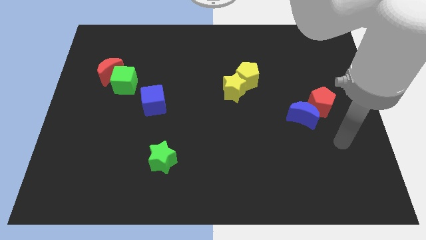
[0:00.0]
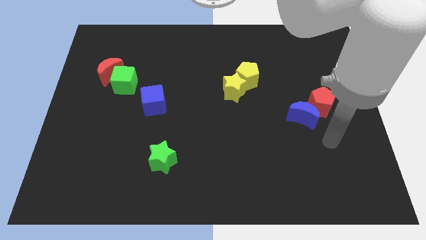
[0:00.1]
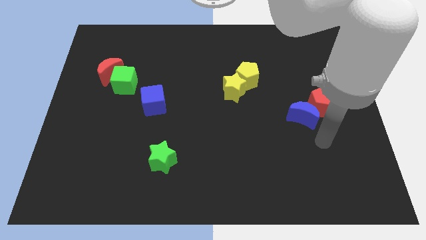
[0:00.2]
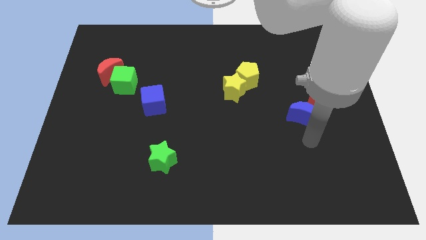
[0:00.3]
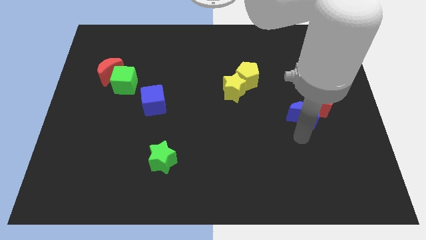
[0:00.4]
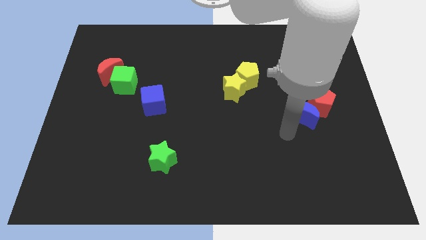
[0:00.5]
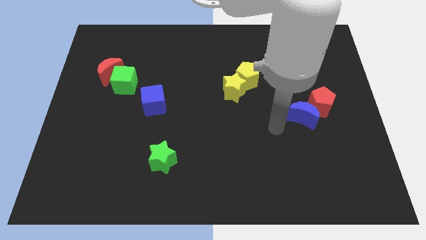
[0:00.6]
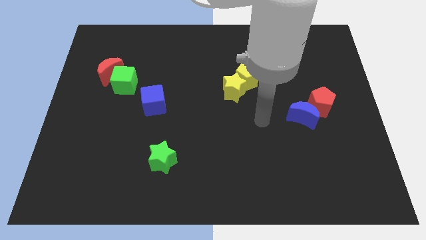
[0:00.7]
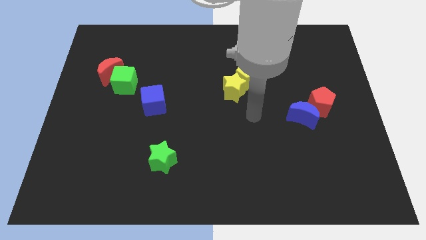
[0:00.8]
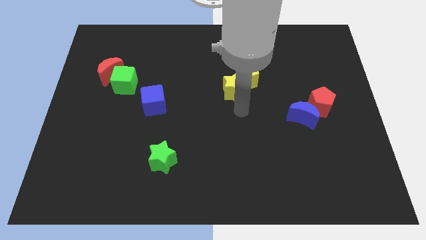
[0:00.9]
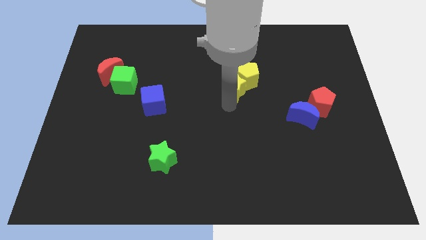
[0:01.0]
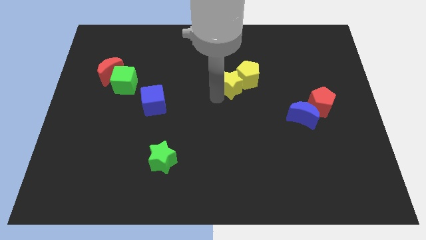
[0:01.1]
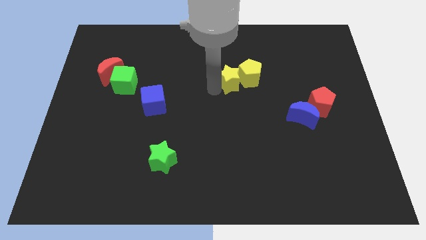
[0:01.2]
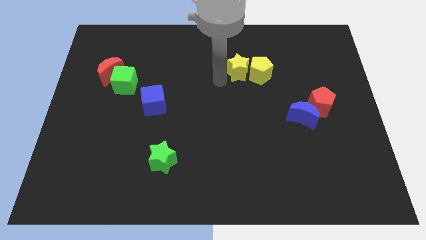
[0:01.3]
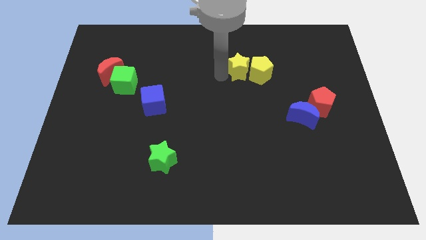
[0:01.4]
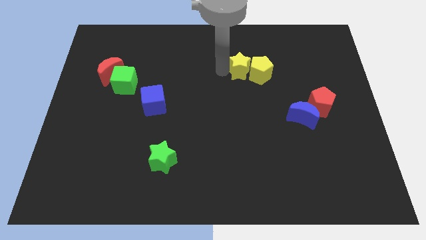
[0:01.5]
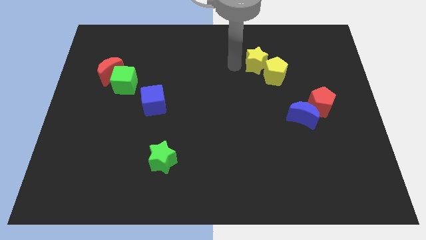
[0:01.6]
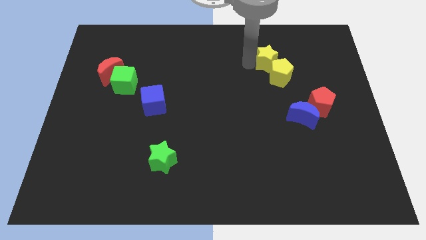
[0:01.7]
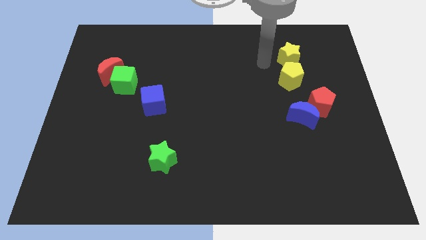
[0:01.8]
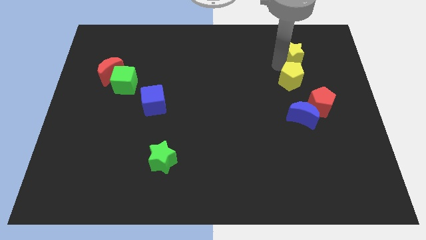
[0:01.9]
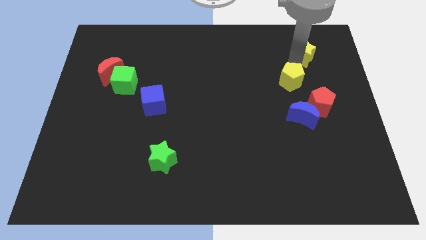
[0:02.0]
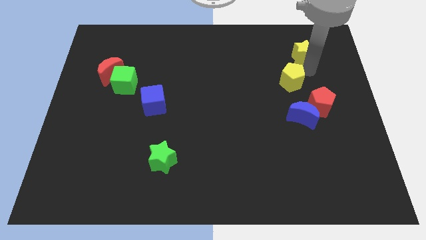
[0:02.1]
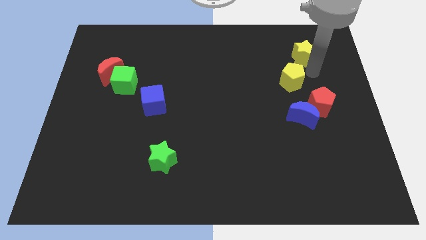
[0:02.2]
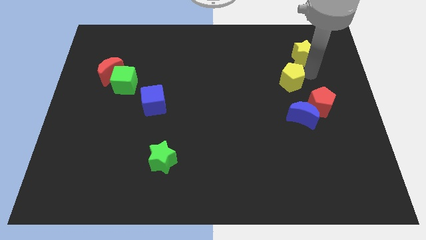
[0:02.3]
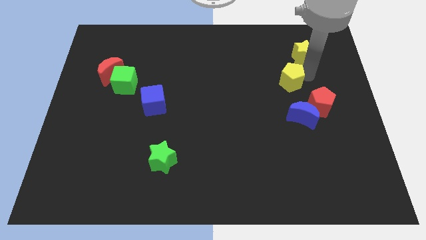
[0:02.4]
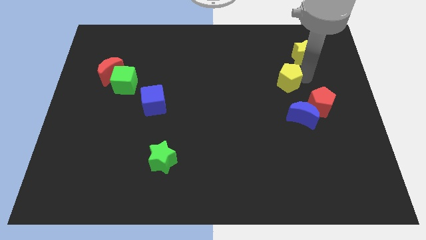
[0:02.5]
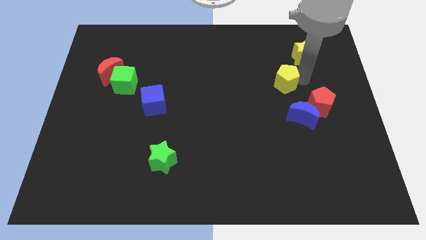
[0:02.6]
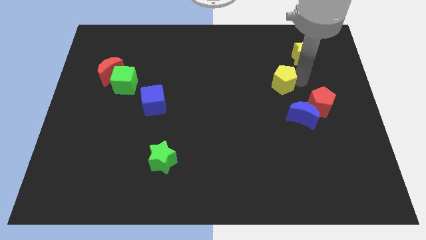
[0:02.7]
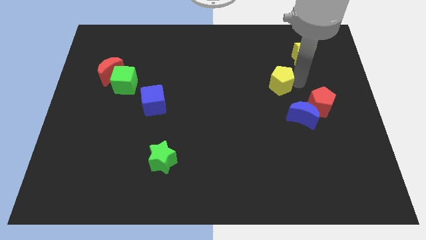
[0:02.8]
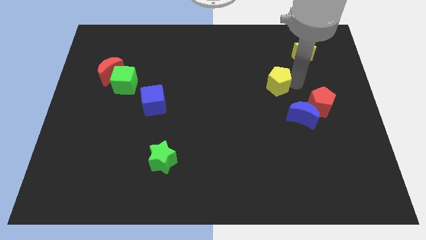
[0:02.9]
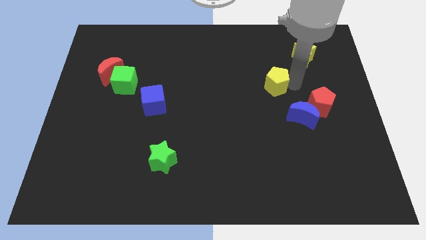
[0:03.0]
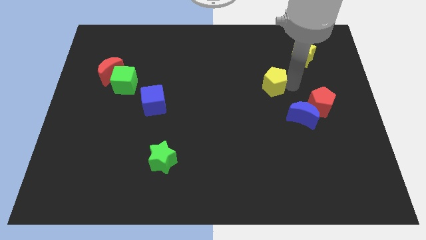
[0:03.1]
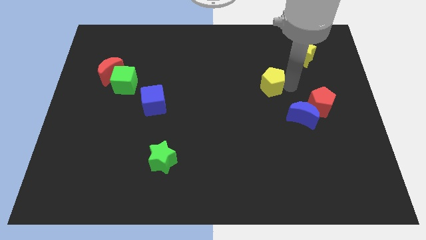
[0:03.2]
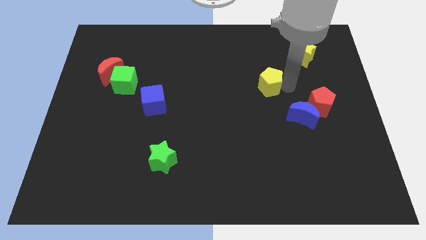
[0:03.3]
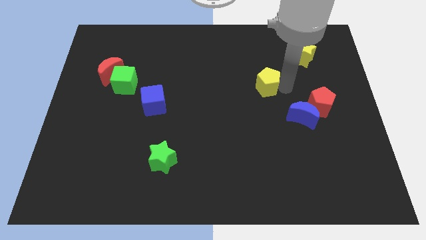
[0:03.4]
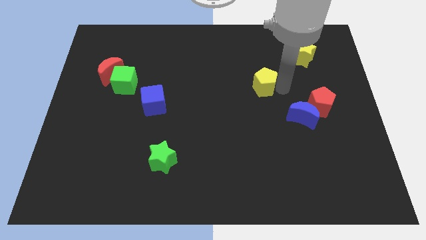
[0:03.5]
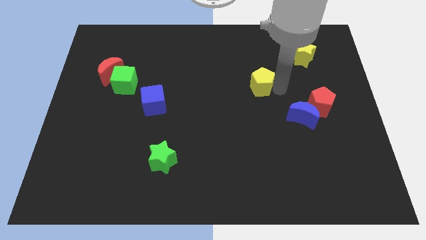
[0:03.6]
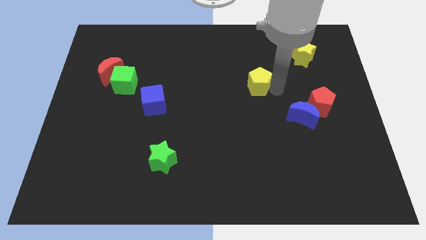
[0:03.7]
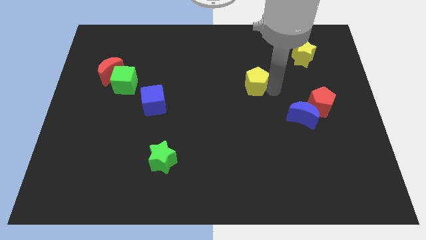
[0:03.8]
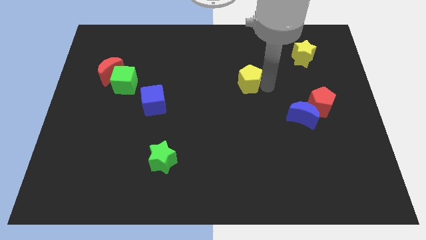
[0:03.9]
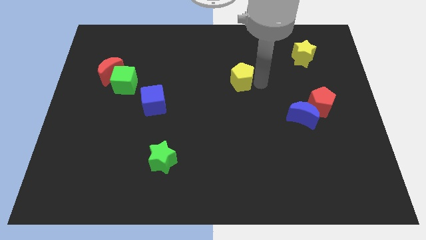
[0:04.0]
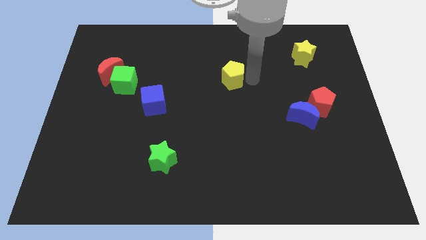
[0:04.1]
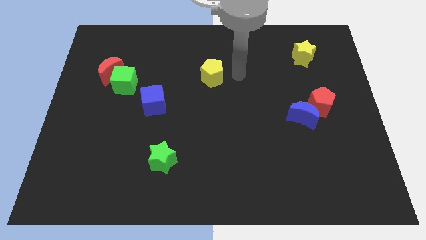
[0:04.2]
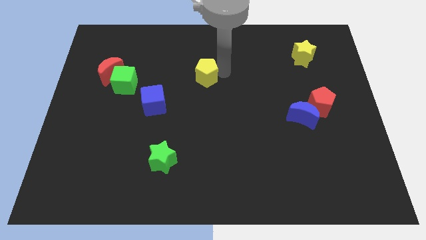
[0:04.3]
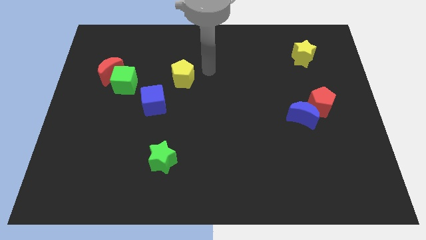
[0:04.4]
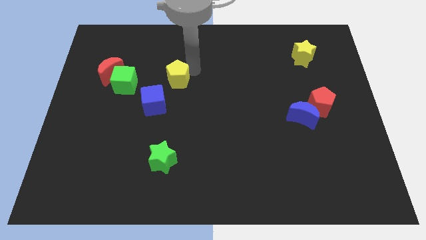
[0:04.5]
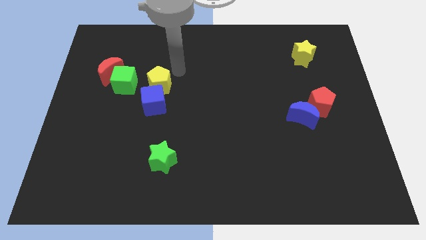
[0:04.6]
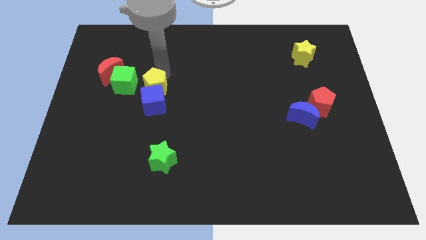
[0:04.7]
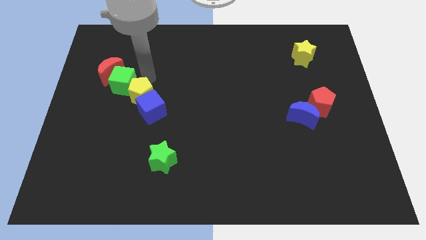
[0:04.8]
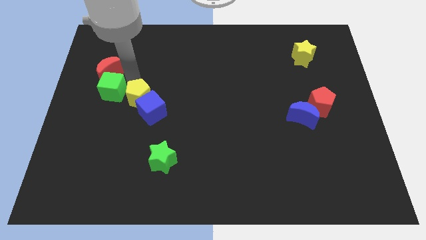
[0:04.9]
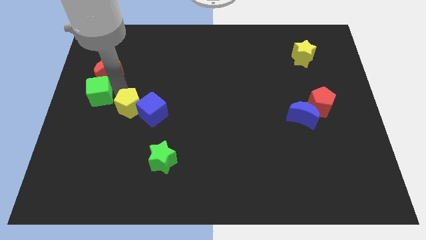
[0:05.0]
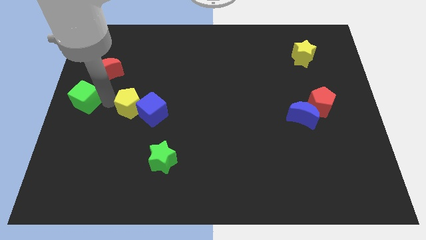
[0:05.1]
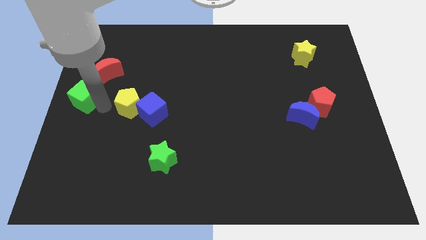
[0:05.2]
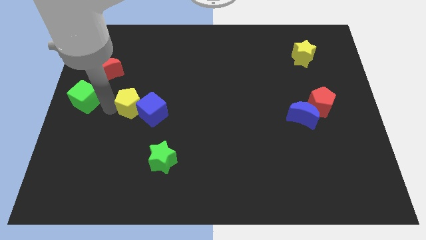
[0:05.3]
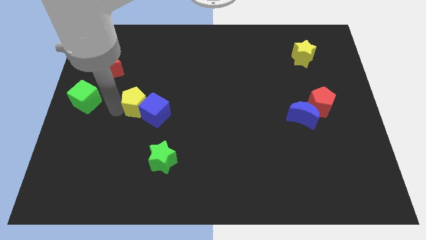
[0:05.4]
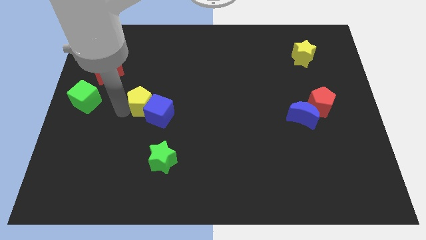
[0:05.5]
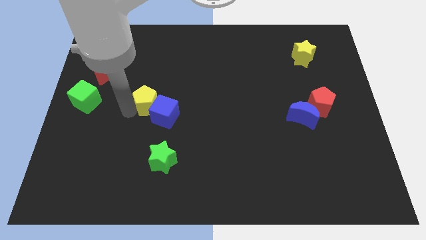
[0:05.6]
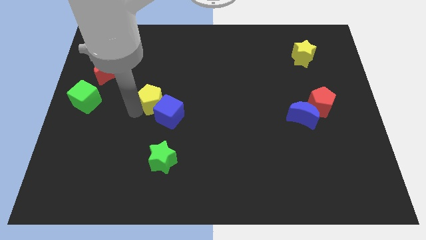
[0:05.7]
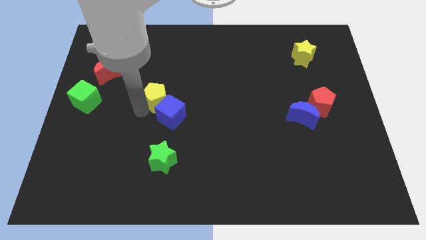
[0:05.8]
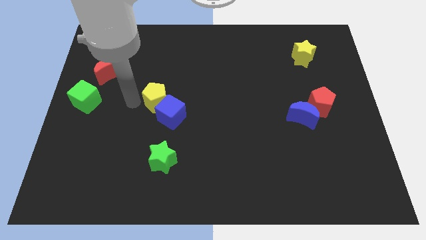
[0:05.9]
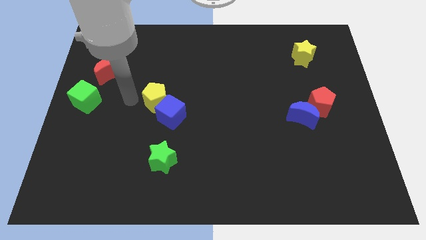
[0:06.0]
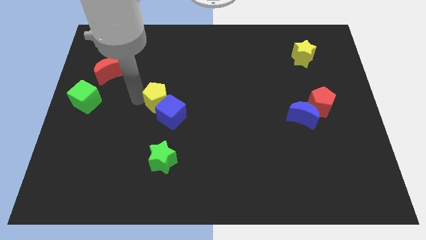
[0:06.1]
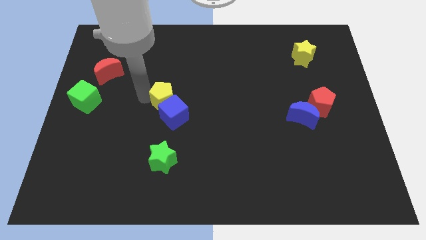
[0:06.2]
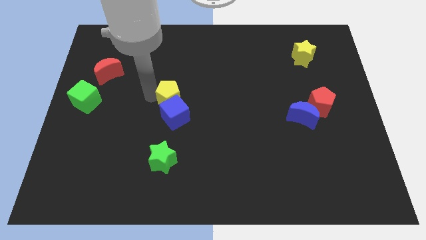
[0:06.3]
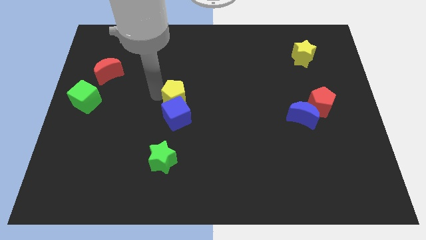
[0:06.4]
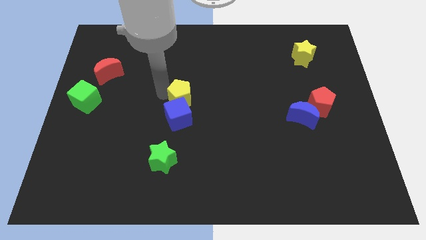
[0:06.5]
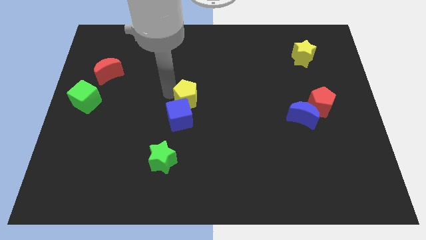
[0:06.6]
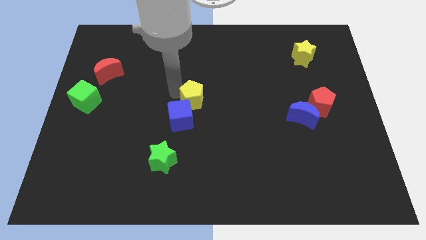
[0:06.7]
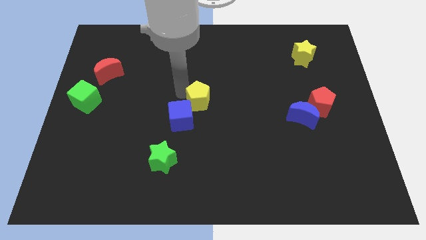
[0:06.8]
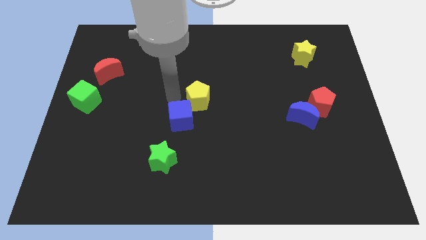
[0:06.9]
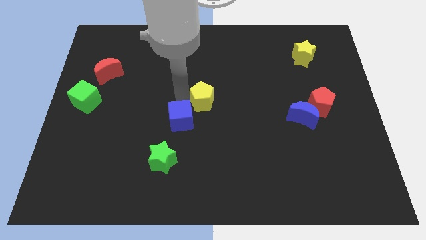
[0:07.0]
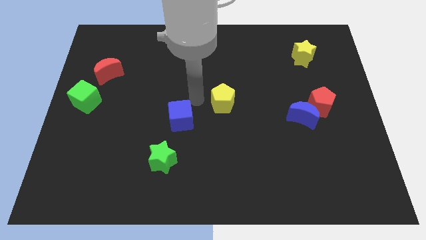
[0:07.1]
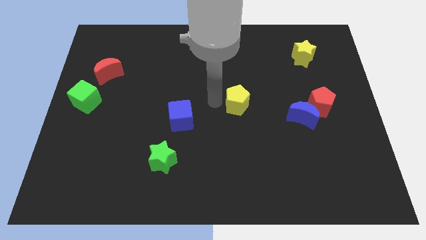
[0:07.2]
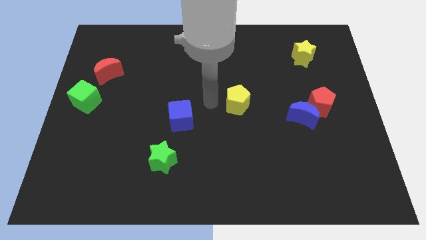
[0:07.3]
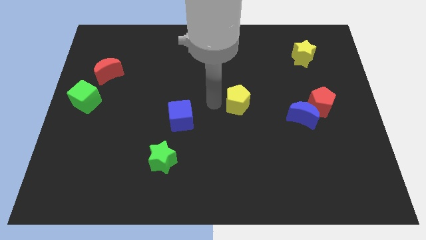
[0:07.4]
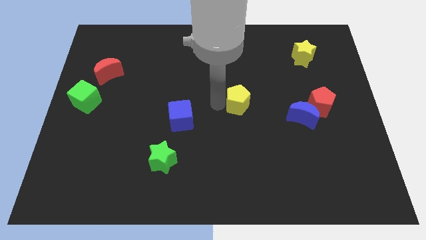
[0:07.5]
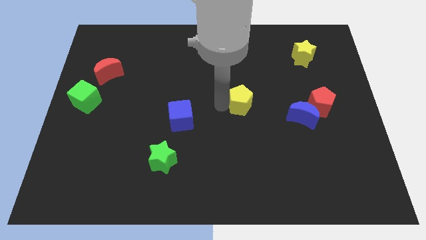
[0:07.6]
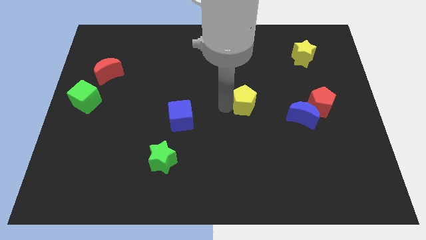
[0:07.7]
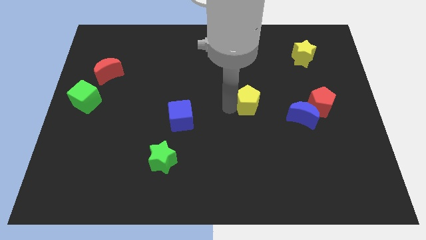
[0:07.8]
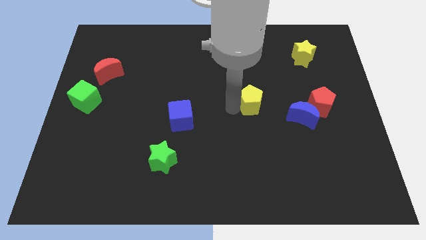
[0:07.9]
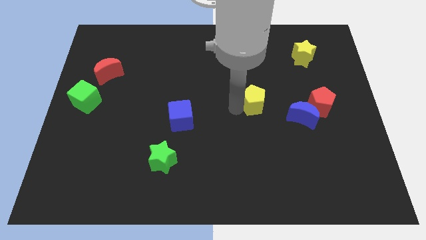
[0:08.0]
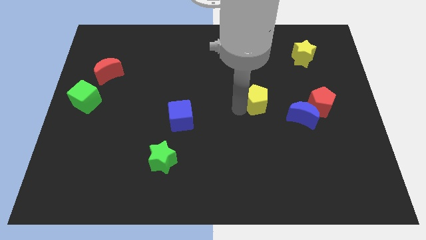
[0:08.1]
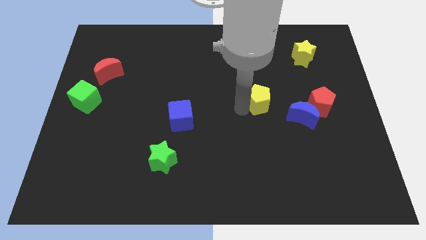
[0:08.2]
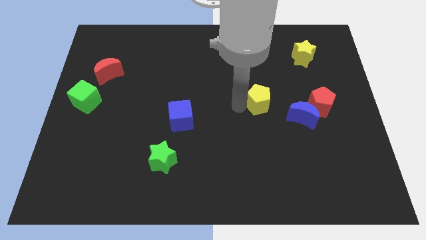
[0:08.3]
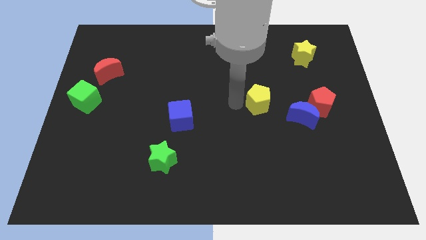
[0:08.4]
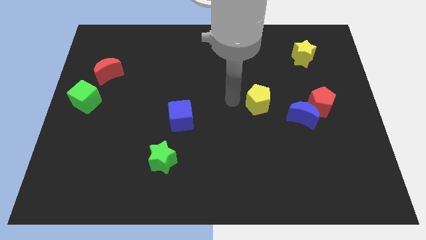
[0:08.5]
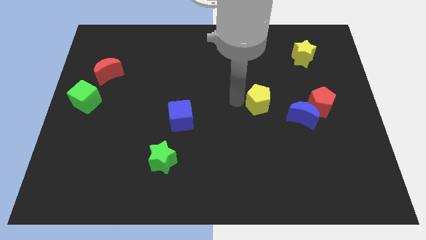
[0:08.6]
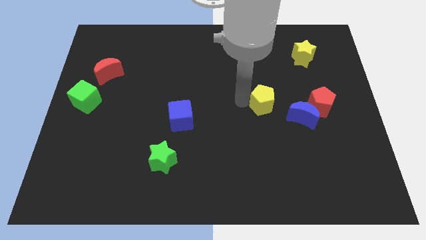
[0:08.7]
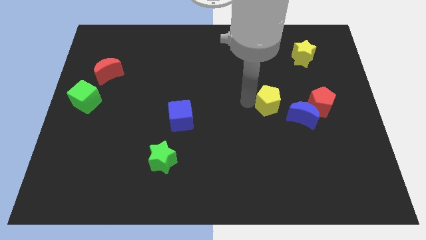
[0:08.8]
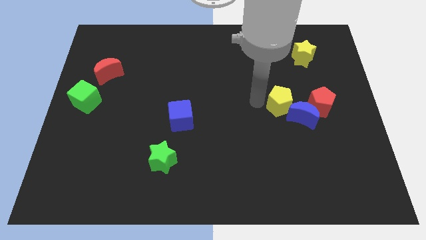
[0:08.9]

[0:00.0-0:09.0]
move the yellow pentagon close to the blue moon
